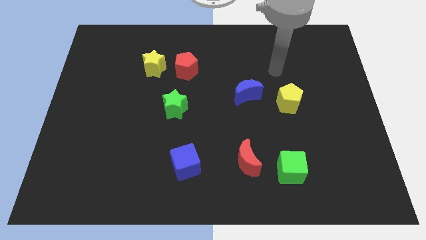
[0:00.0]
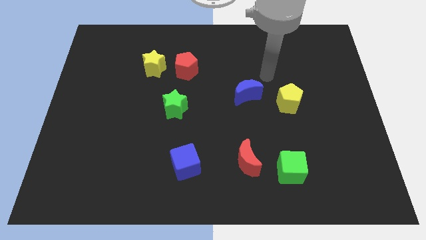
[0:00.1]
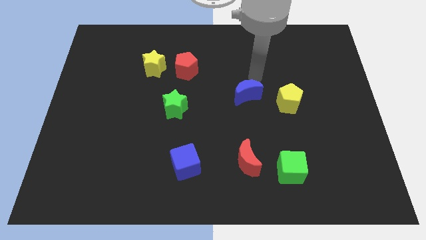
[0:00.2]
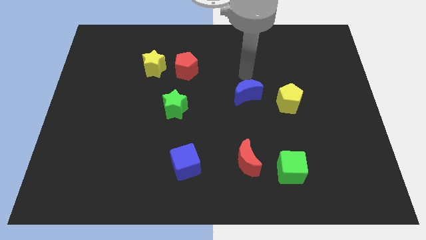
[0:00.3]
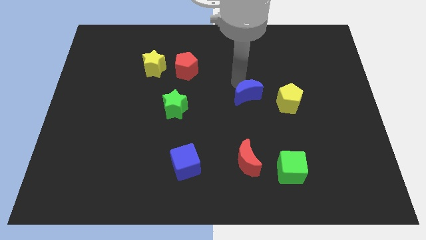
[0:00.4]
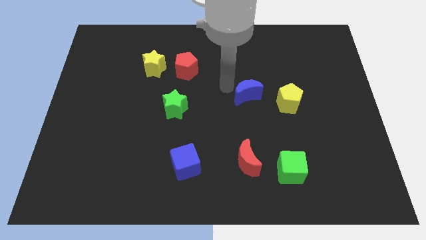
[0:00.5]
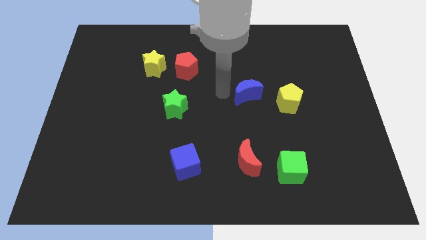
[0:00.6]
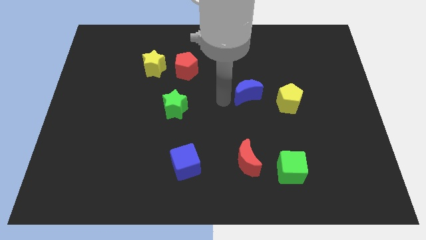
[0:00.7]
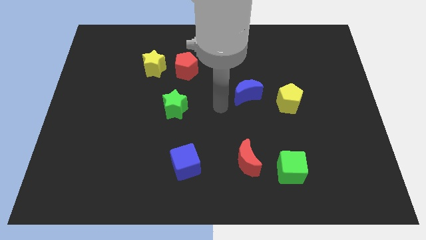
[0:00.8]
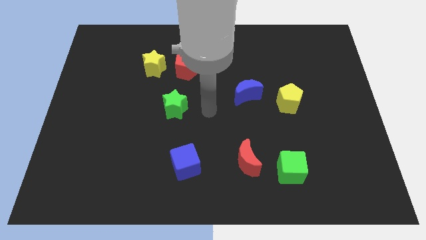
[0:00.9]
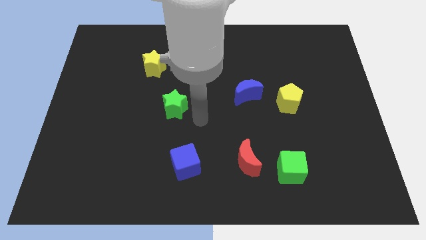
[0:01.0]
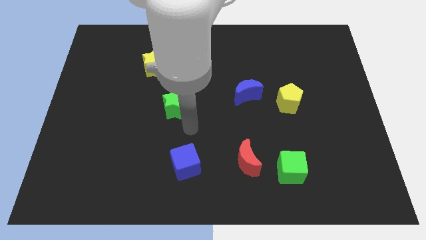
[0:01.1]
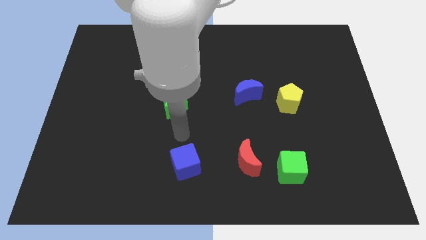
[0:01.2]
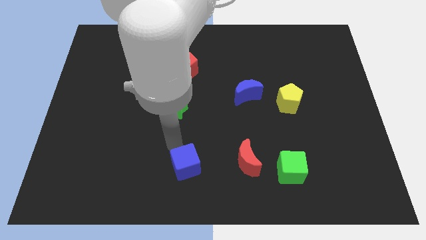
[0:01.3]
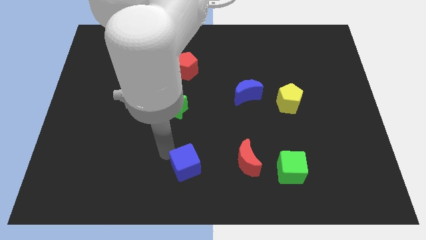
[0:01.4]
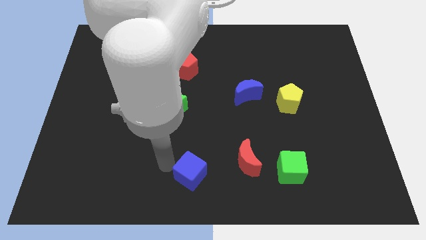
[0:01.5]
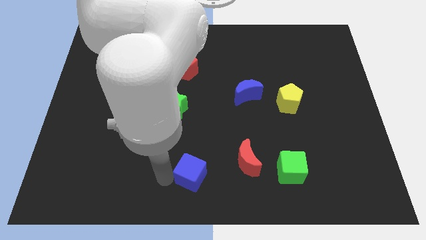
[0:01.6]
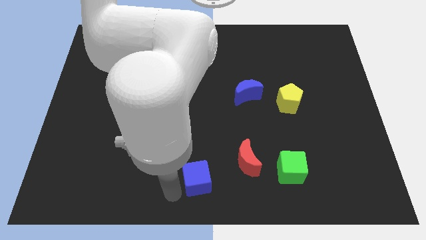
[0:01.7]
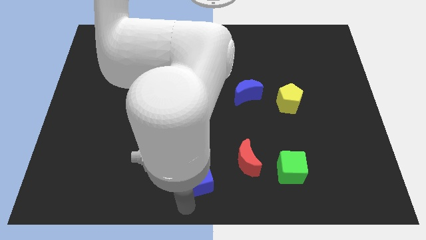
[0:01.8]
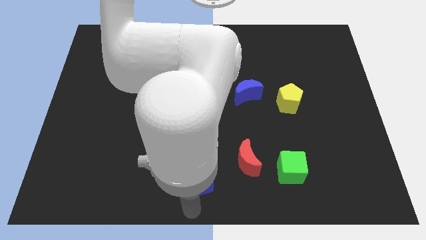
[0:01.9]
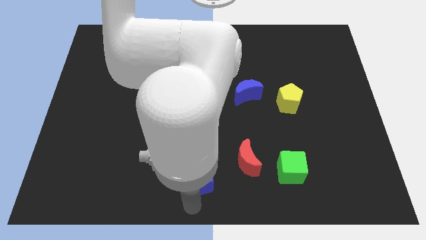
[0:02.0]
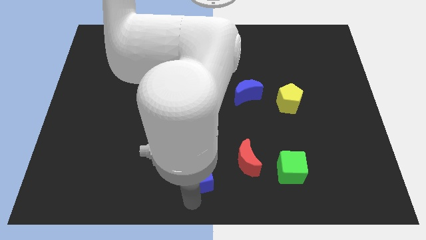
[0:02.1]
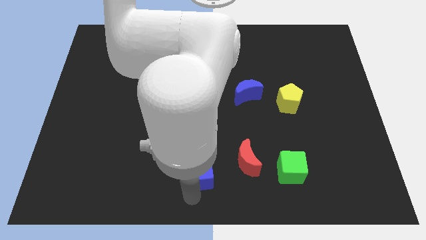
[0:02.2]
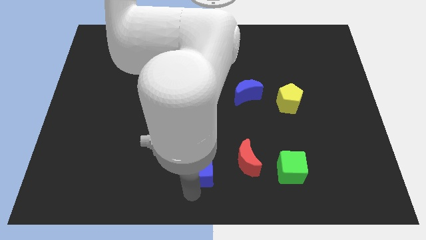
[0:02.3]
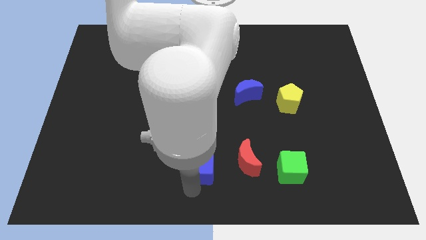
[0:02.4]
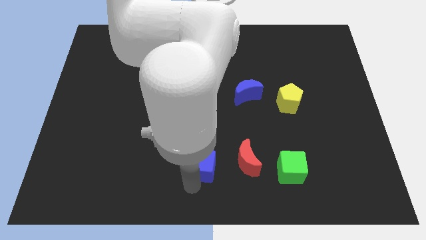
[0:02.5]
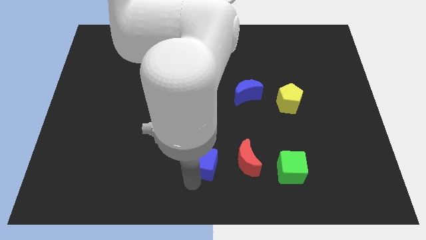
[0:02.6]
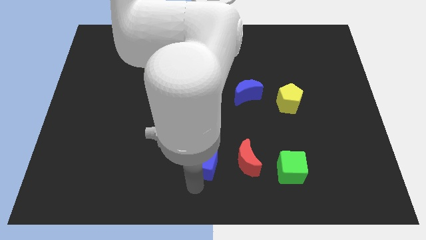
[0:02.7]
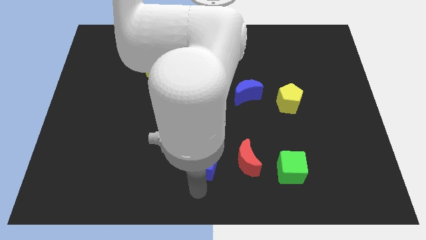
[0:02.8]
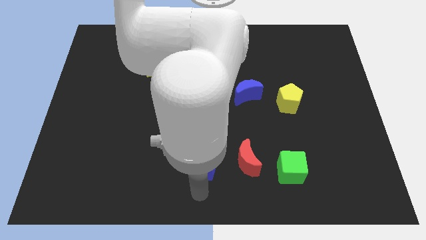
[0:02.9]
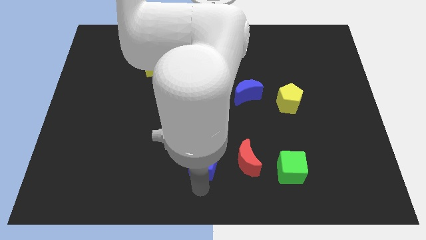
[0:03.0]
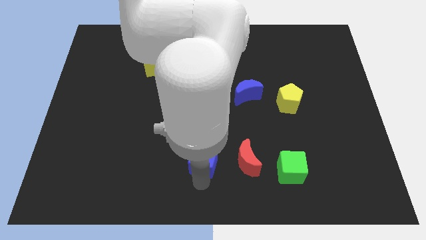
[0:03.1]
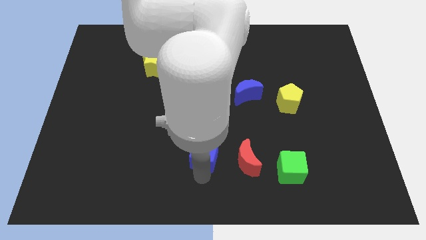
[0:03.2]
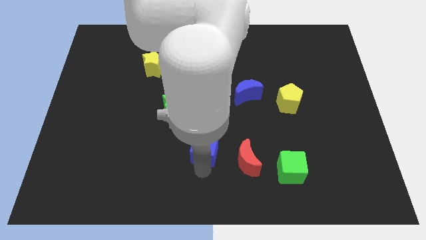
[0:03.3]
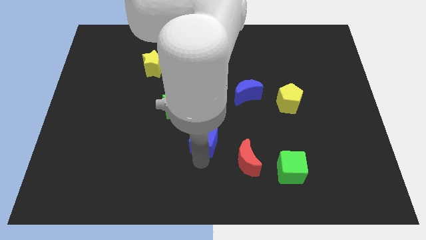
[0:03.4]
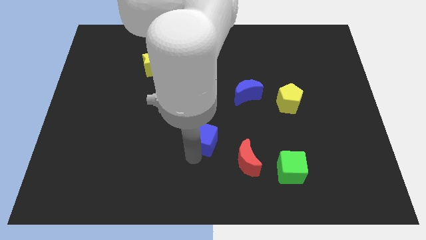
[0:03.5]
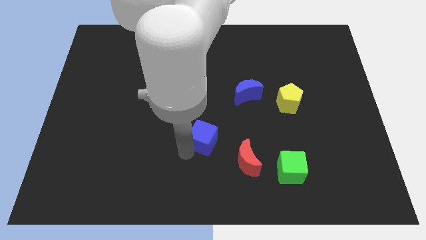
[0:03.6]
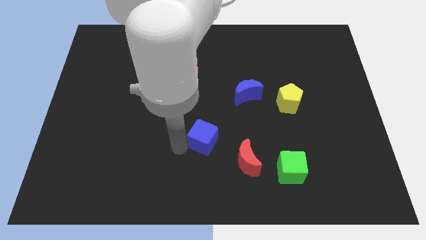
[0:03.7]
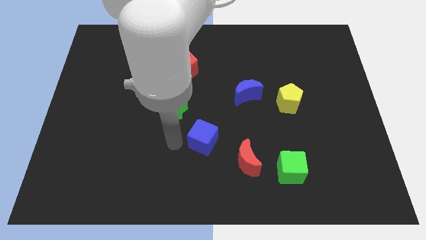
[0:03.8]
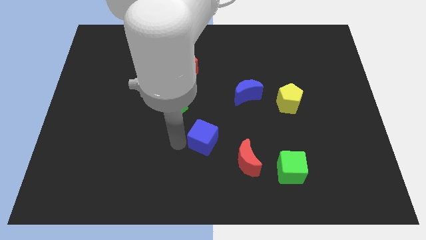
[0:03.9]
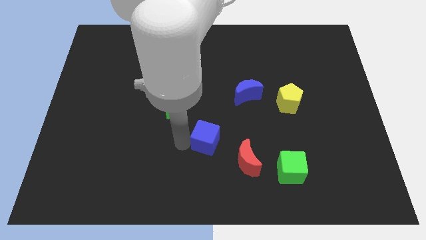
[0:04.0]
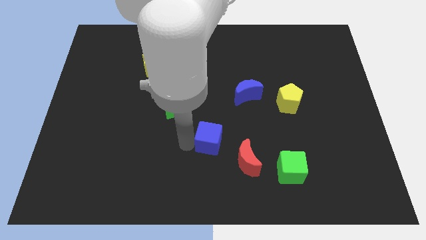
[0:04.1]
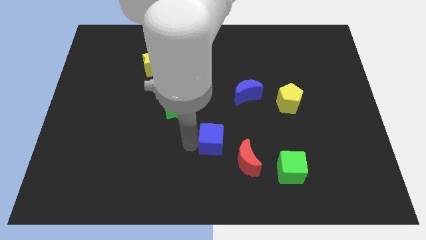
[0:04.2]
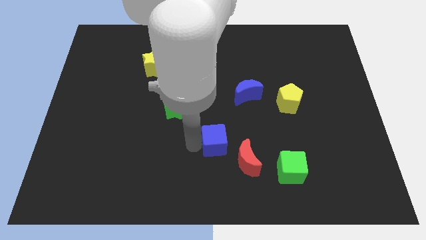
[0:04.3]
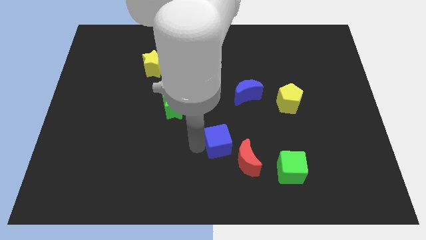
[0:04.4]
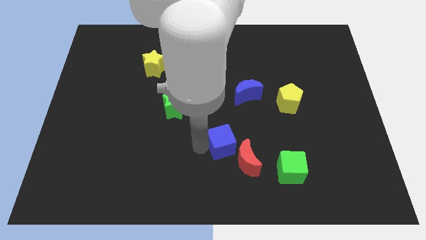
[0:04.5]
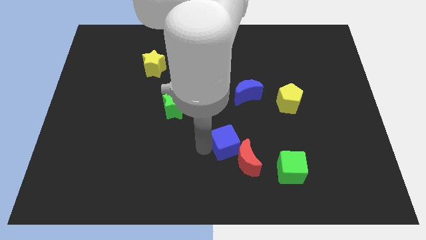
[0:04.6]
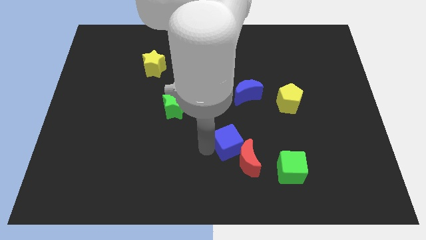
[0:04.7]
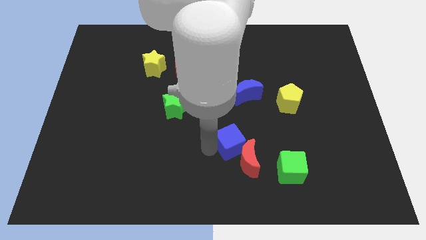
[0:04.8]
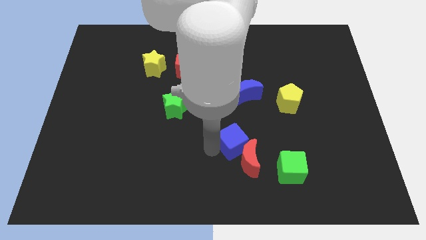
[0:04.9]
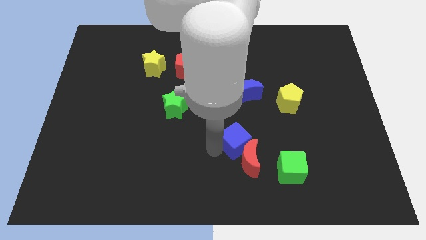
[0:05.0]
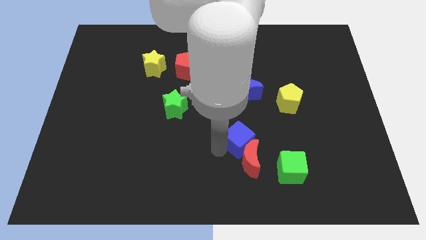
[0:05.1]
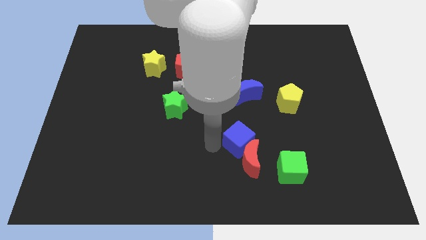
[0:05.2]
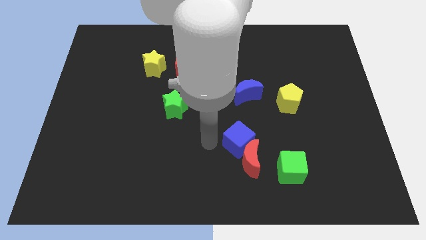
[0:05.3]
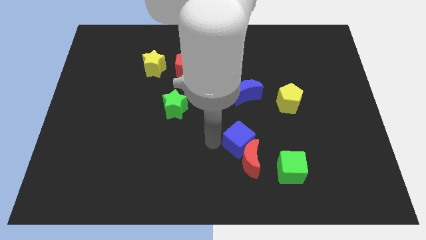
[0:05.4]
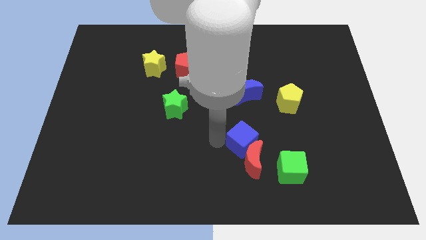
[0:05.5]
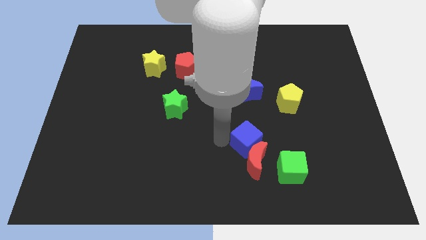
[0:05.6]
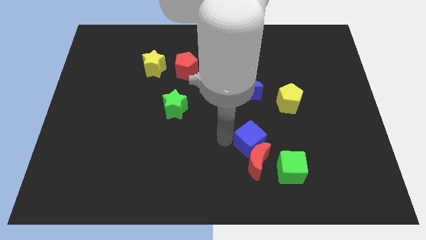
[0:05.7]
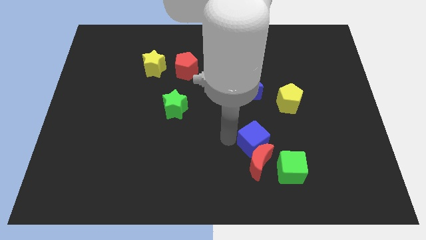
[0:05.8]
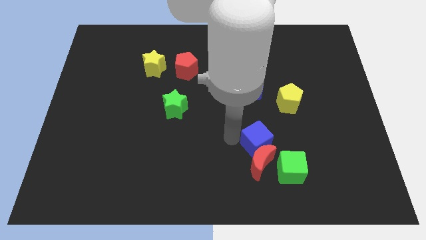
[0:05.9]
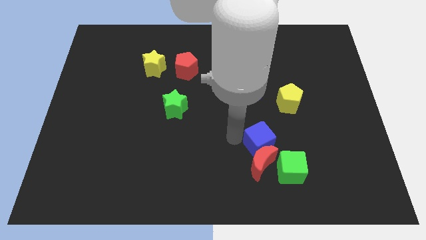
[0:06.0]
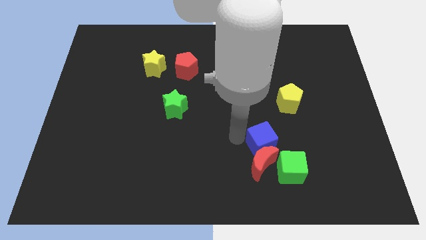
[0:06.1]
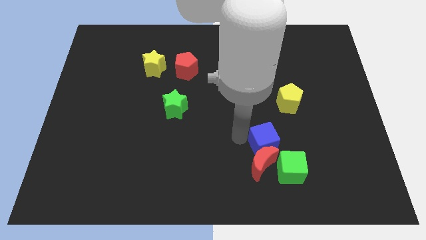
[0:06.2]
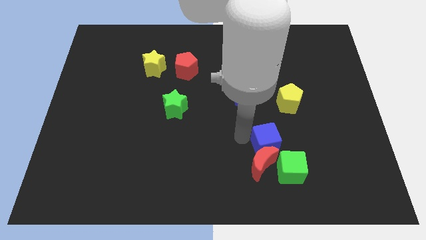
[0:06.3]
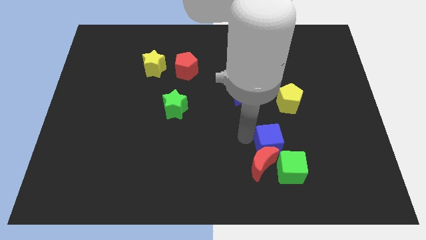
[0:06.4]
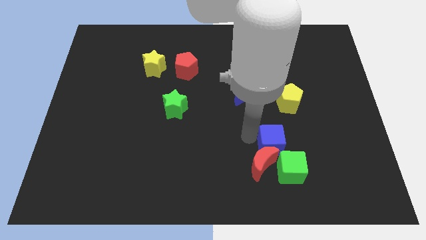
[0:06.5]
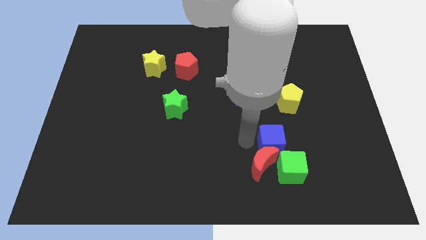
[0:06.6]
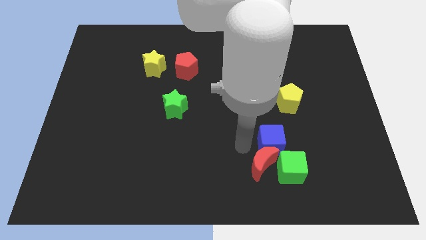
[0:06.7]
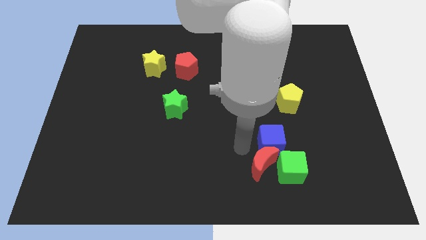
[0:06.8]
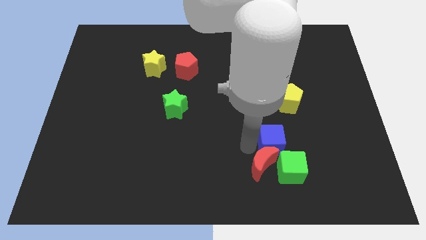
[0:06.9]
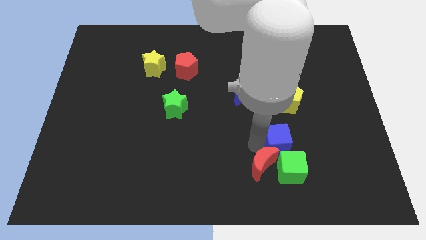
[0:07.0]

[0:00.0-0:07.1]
put the blue cube to the bottom side of the yellow pentagon
